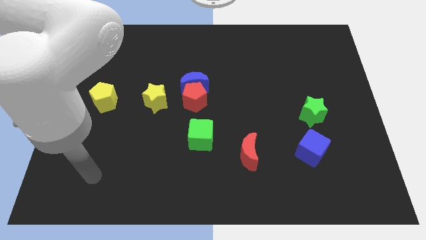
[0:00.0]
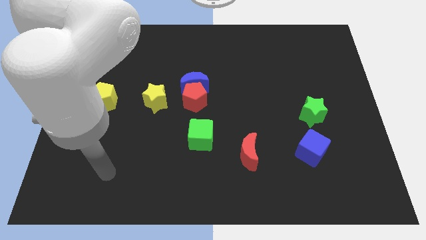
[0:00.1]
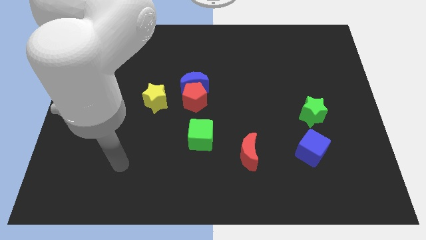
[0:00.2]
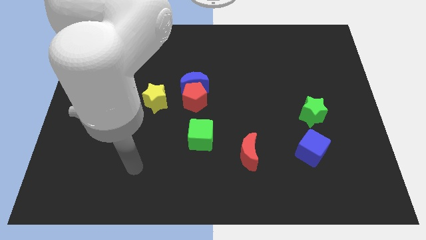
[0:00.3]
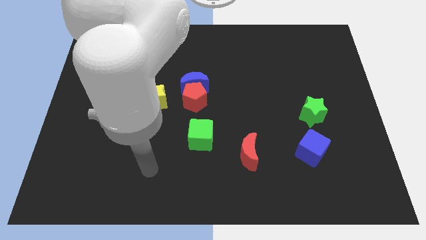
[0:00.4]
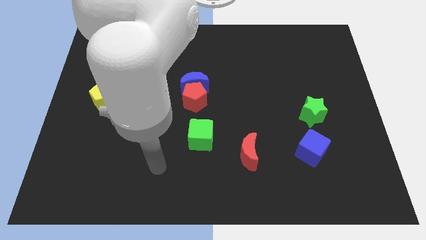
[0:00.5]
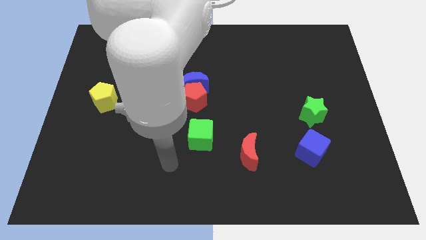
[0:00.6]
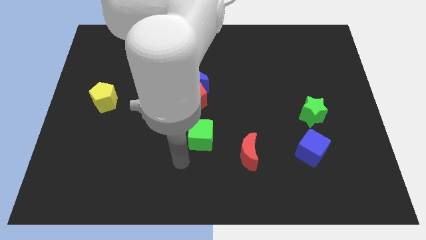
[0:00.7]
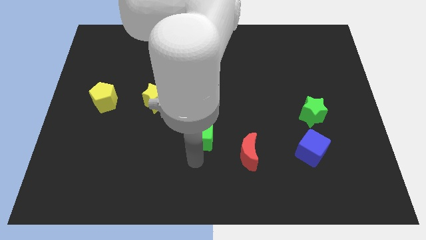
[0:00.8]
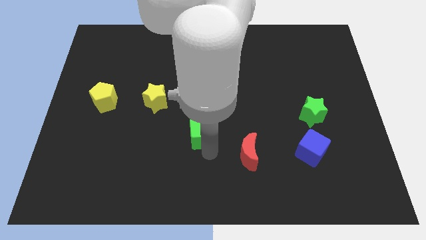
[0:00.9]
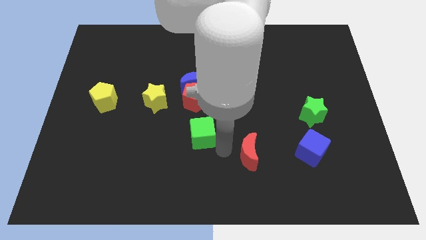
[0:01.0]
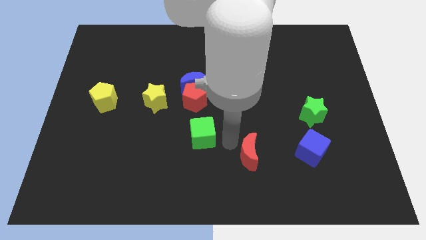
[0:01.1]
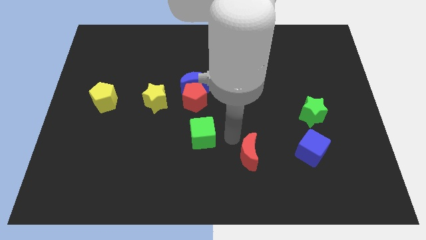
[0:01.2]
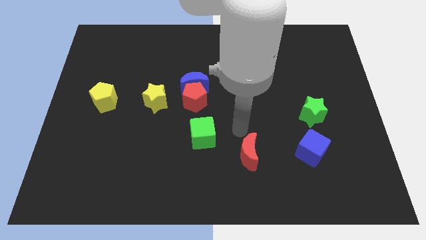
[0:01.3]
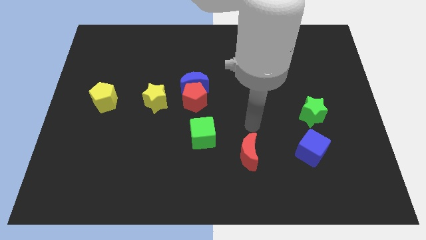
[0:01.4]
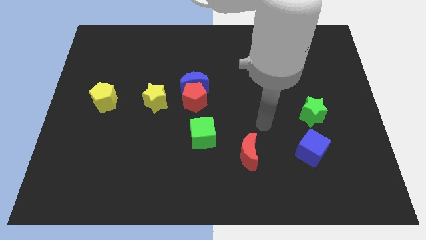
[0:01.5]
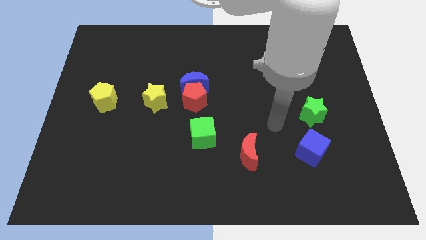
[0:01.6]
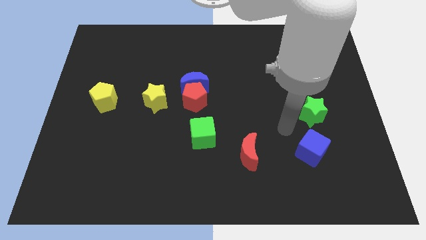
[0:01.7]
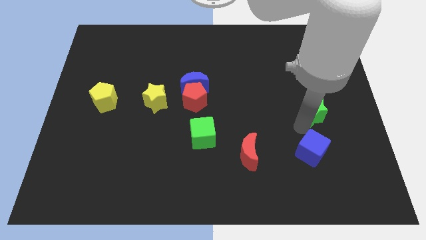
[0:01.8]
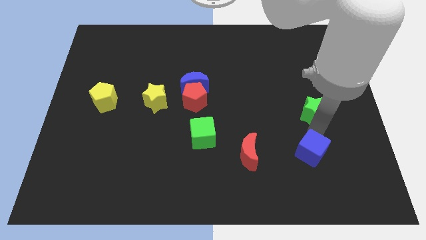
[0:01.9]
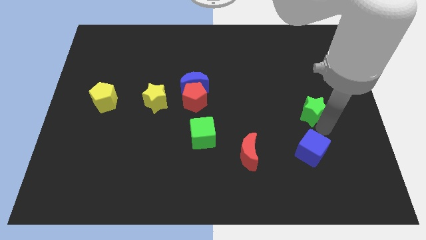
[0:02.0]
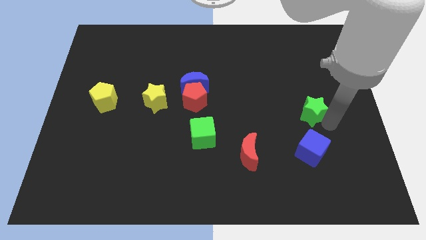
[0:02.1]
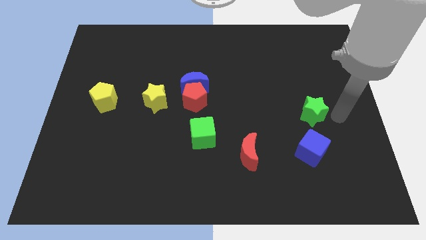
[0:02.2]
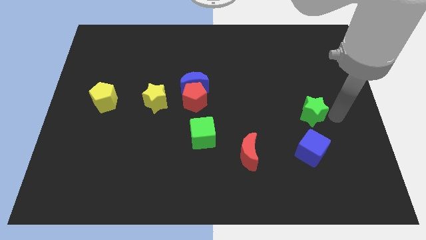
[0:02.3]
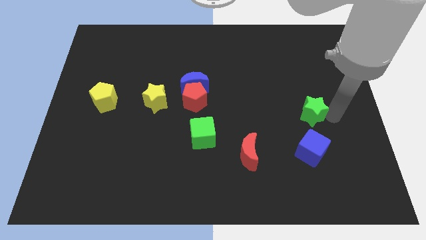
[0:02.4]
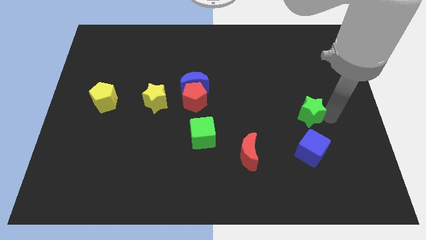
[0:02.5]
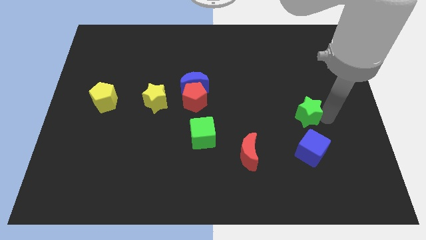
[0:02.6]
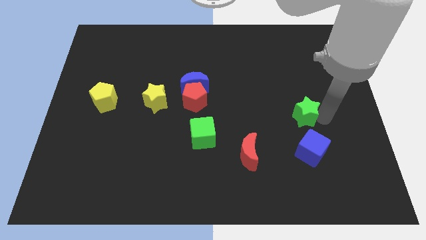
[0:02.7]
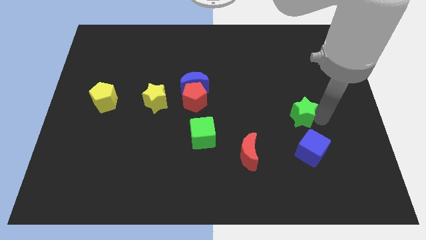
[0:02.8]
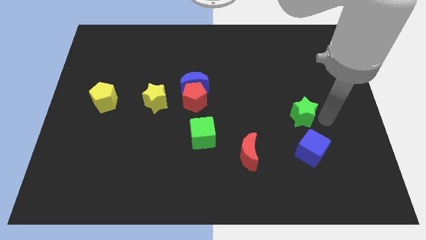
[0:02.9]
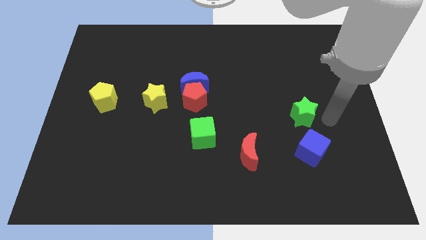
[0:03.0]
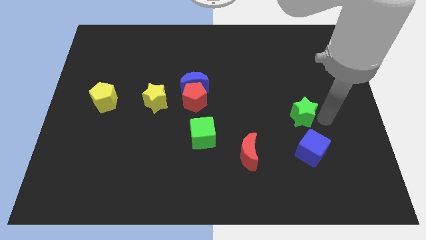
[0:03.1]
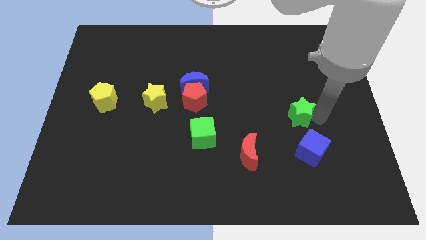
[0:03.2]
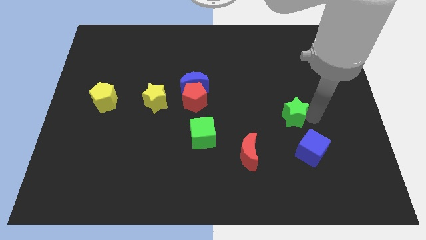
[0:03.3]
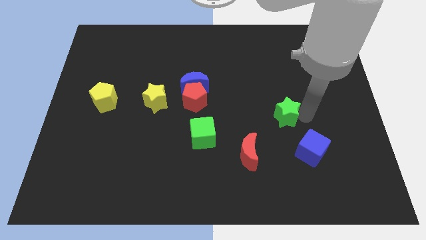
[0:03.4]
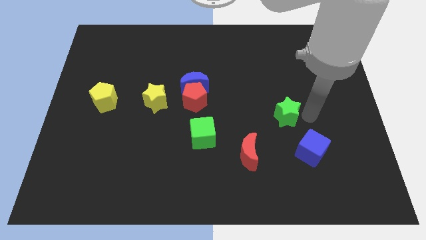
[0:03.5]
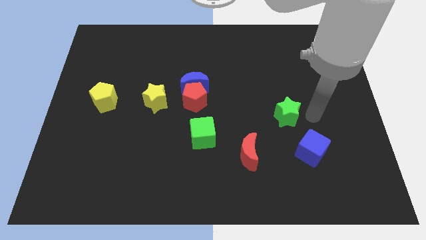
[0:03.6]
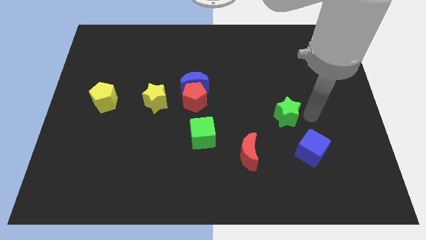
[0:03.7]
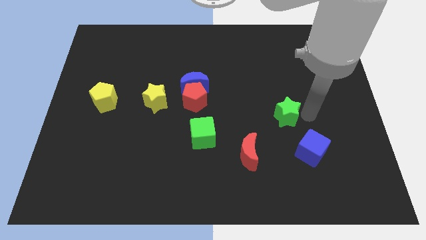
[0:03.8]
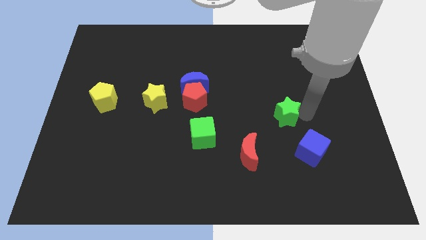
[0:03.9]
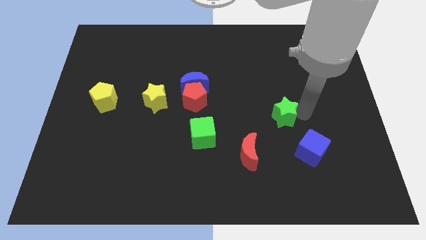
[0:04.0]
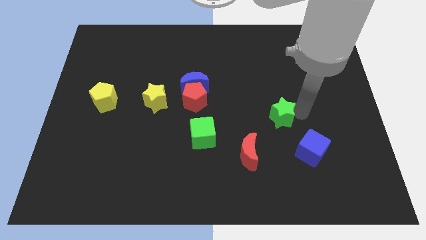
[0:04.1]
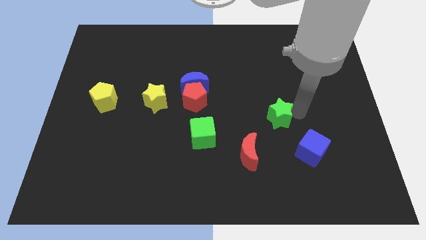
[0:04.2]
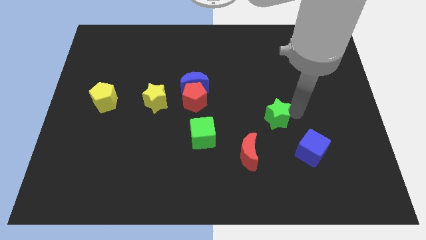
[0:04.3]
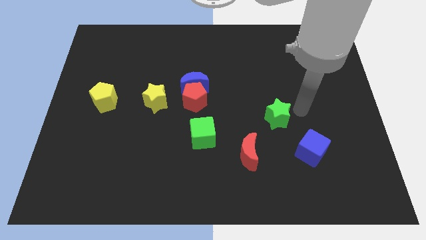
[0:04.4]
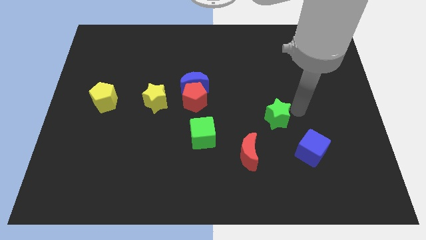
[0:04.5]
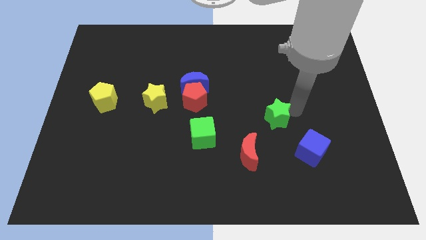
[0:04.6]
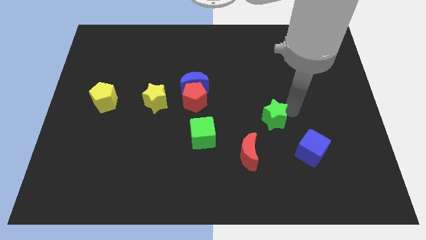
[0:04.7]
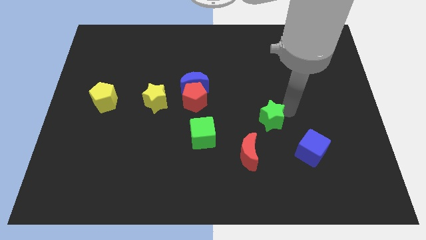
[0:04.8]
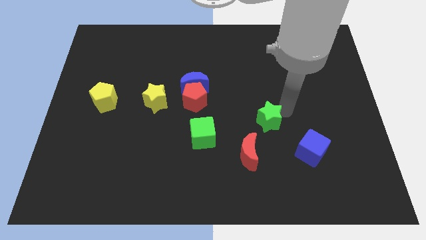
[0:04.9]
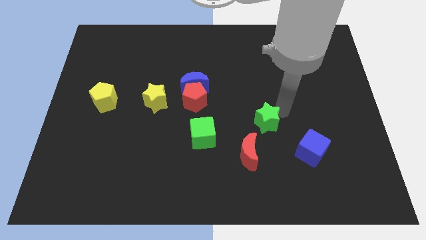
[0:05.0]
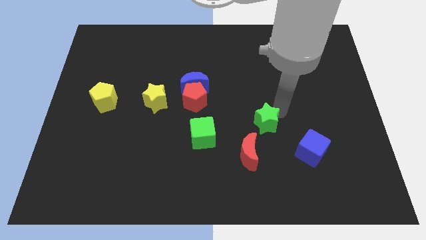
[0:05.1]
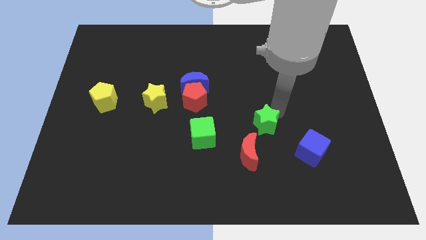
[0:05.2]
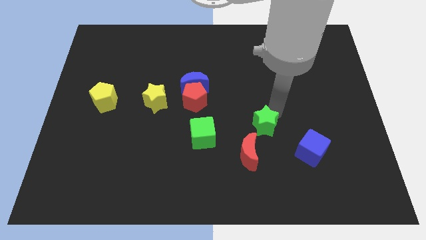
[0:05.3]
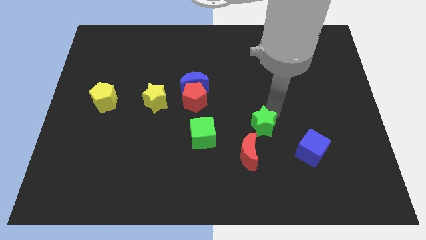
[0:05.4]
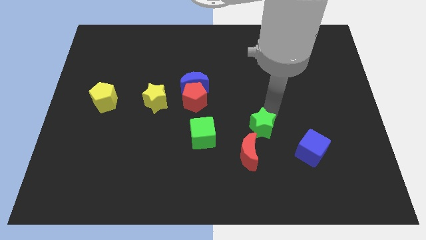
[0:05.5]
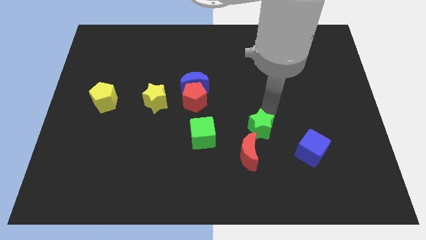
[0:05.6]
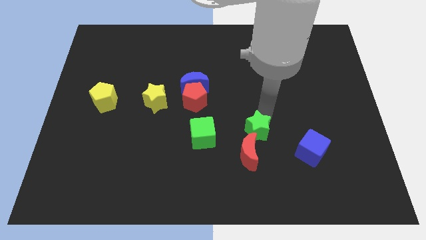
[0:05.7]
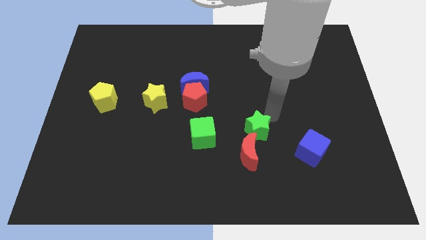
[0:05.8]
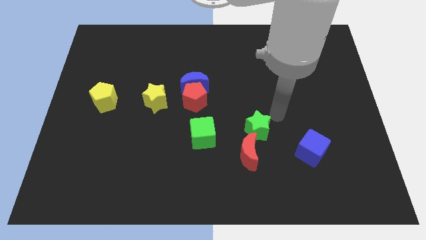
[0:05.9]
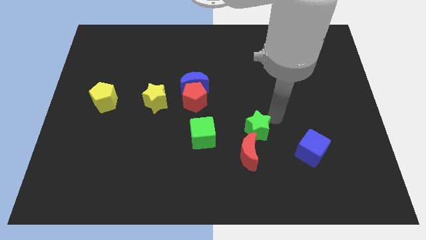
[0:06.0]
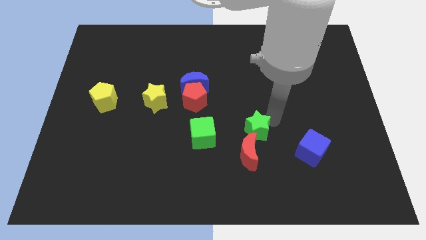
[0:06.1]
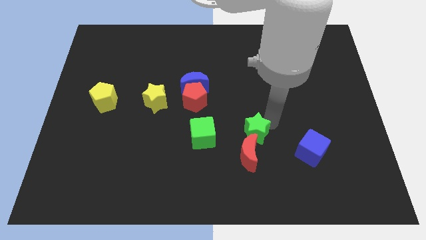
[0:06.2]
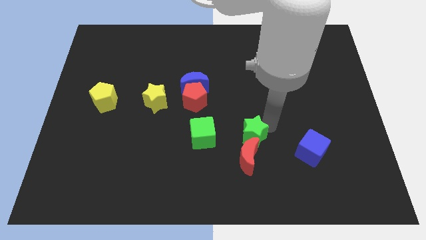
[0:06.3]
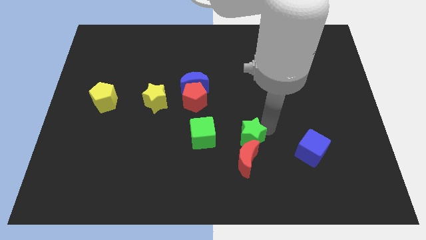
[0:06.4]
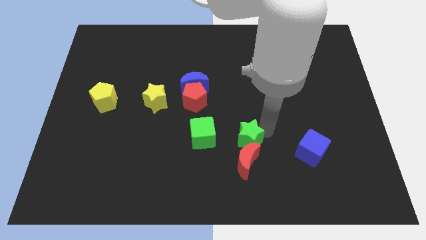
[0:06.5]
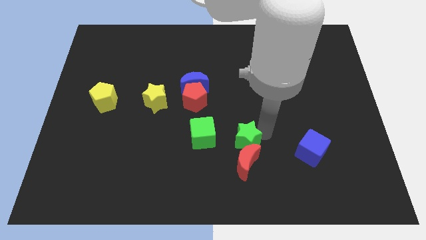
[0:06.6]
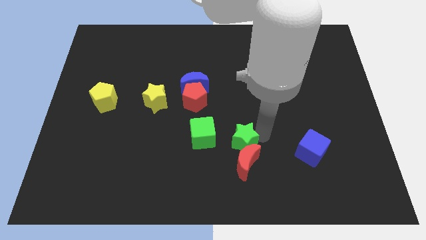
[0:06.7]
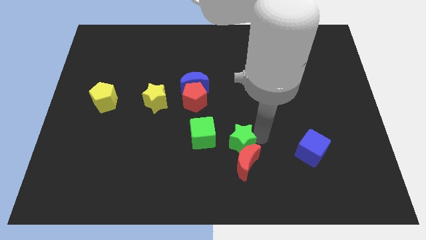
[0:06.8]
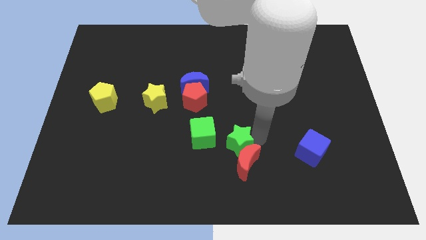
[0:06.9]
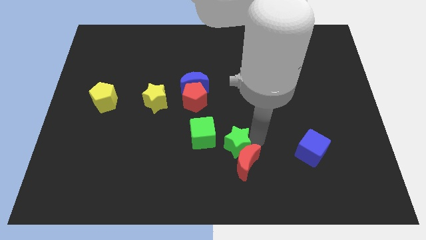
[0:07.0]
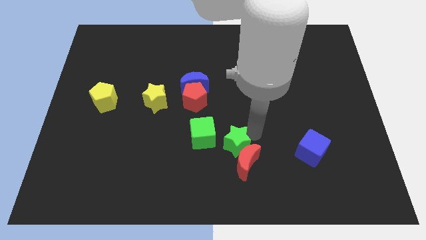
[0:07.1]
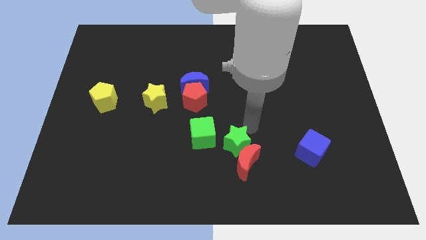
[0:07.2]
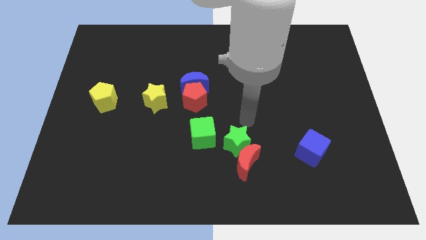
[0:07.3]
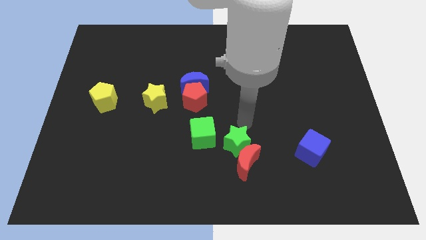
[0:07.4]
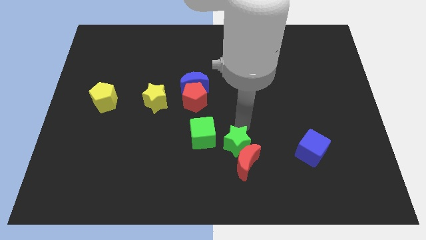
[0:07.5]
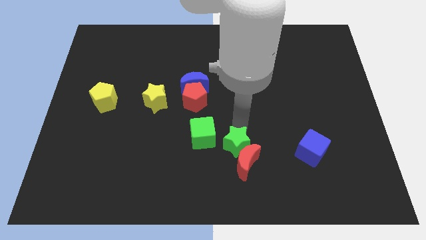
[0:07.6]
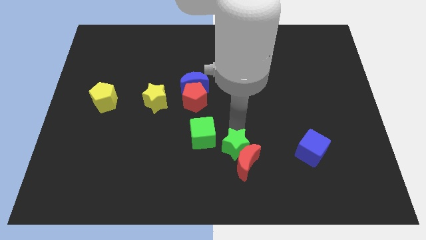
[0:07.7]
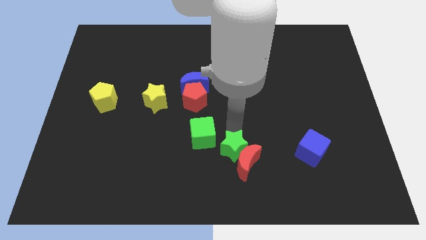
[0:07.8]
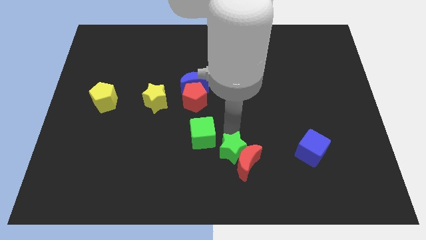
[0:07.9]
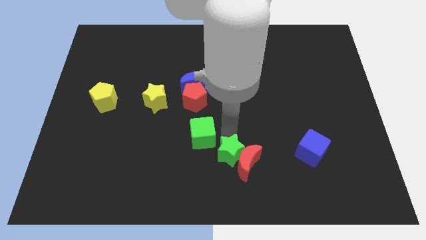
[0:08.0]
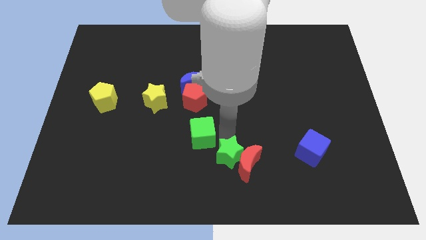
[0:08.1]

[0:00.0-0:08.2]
put the green star to the bottom
